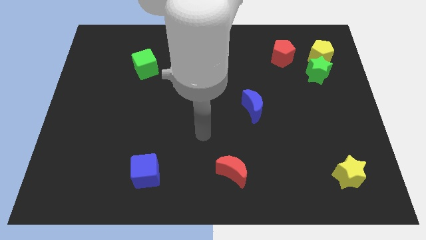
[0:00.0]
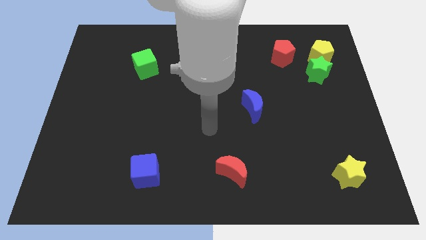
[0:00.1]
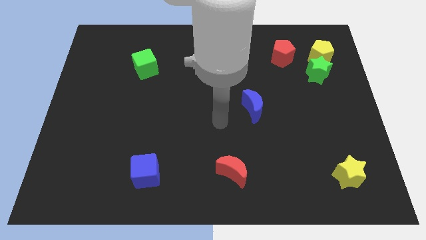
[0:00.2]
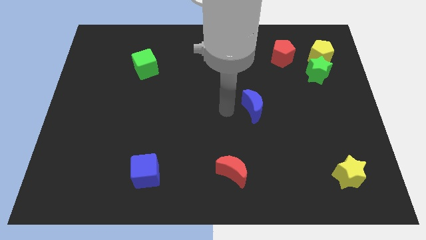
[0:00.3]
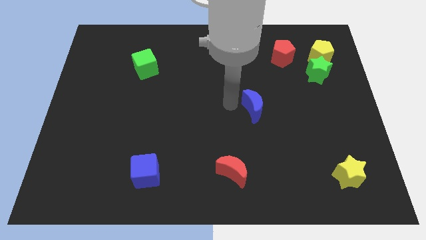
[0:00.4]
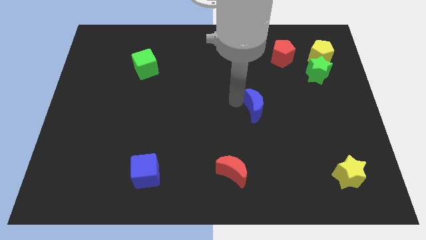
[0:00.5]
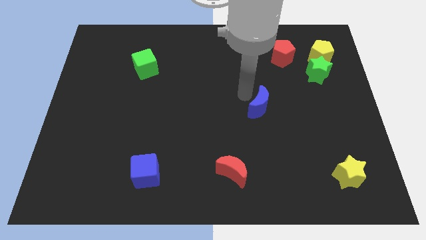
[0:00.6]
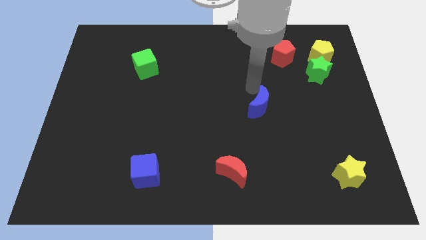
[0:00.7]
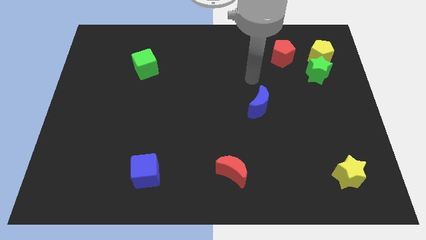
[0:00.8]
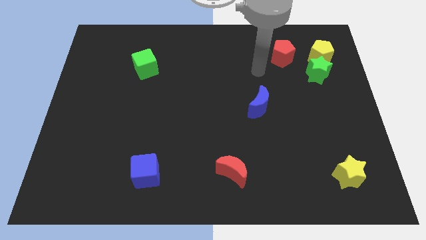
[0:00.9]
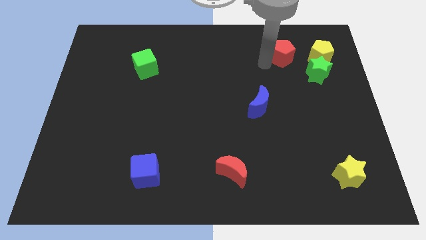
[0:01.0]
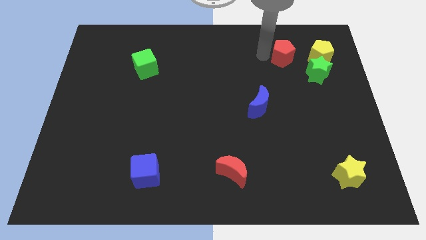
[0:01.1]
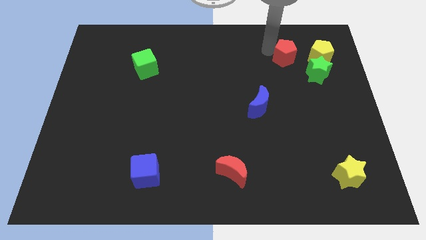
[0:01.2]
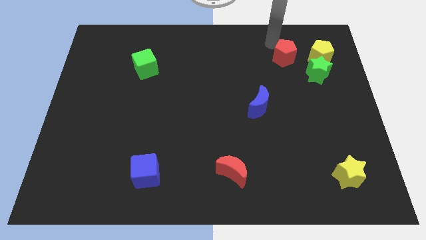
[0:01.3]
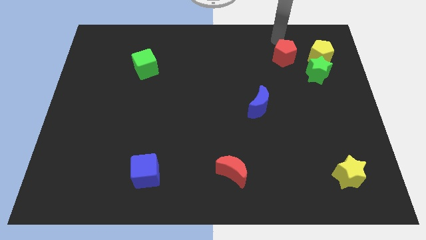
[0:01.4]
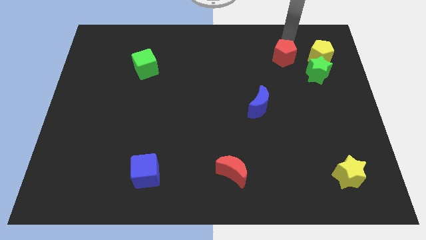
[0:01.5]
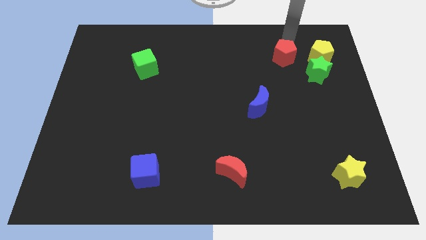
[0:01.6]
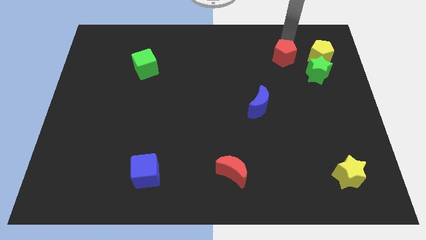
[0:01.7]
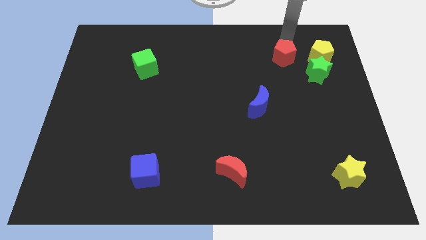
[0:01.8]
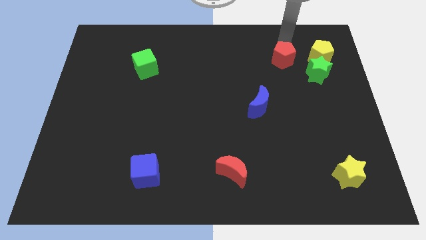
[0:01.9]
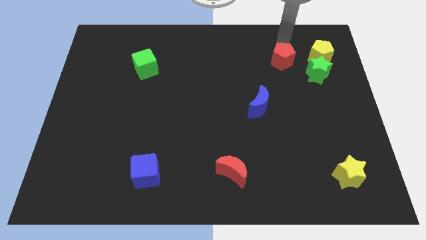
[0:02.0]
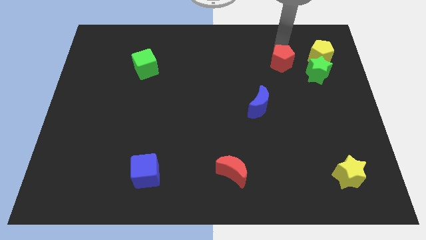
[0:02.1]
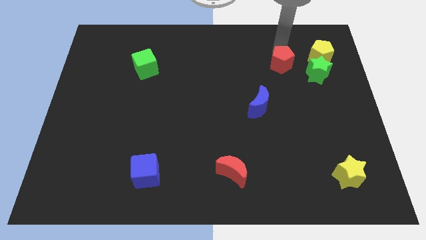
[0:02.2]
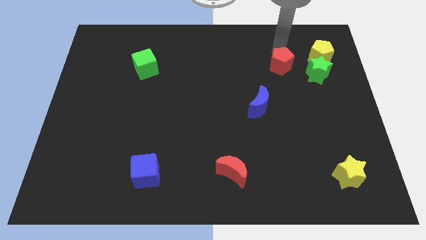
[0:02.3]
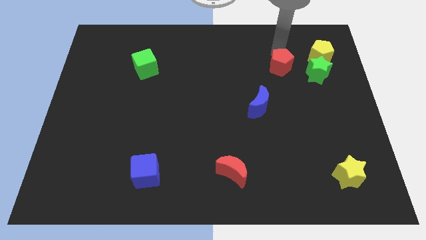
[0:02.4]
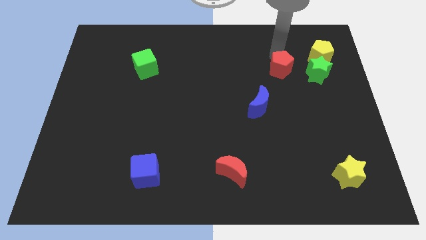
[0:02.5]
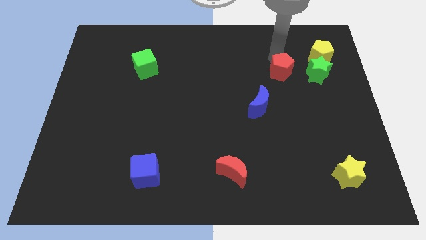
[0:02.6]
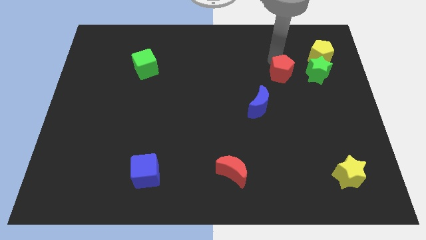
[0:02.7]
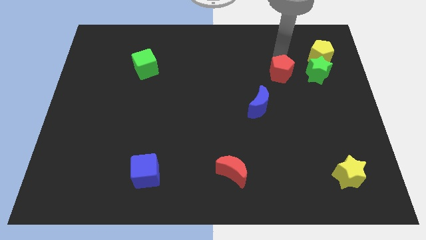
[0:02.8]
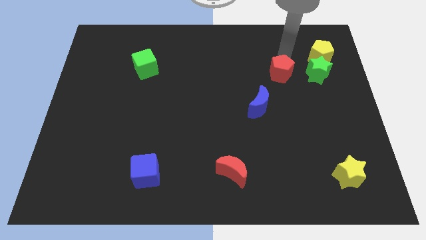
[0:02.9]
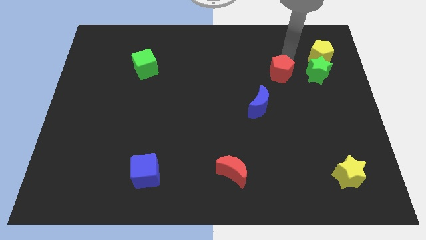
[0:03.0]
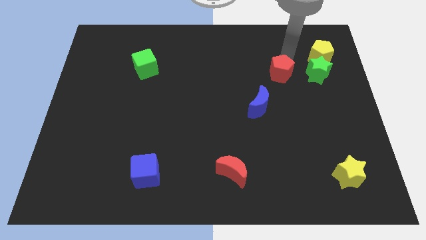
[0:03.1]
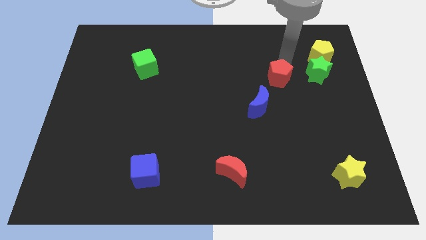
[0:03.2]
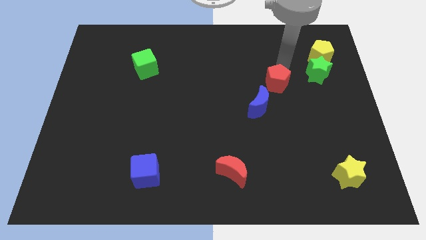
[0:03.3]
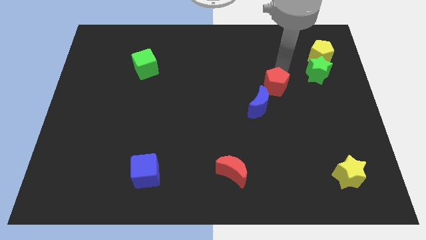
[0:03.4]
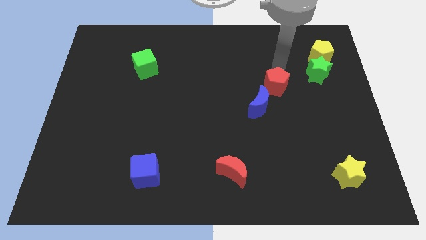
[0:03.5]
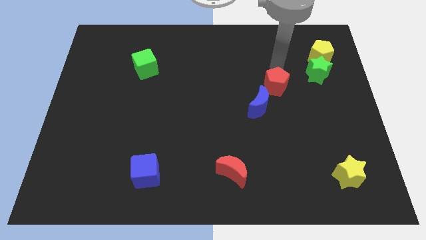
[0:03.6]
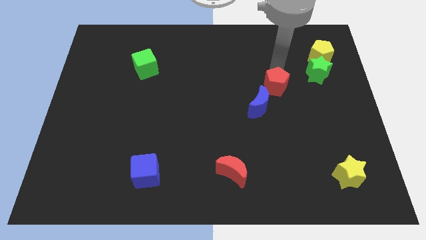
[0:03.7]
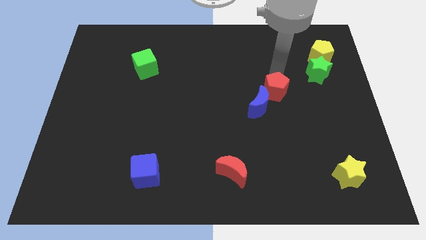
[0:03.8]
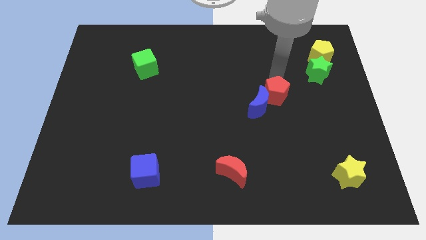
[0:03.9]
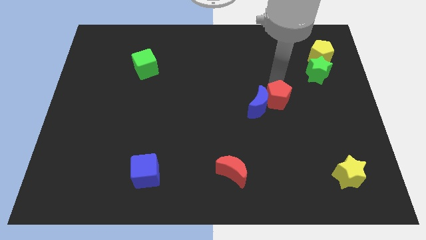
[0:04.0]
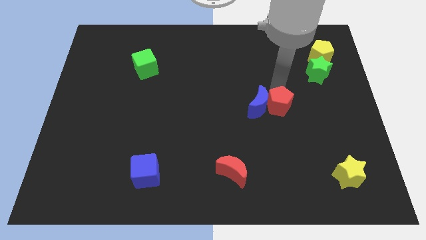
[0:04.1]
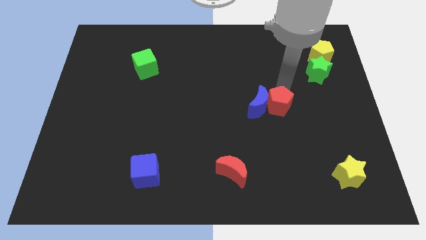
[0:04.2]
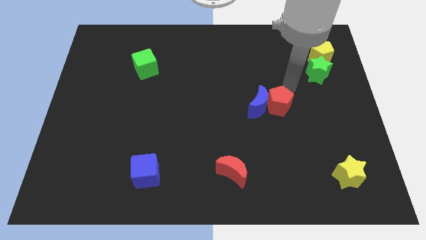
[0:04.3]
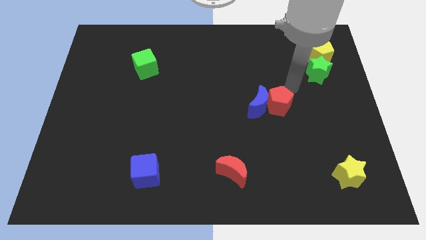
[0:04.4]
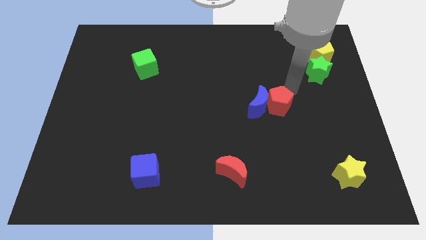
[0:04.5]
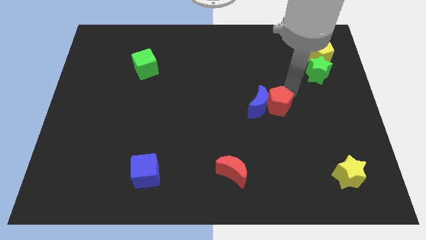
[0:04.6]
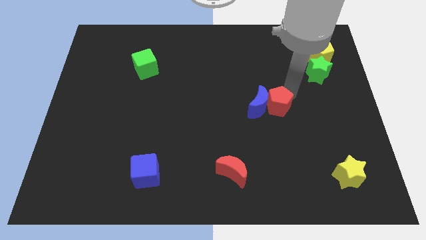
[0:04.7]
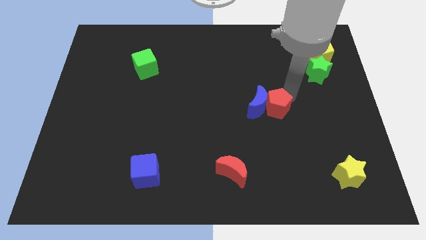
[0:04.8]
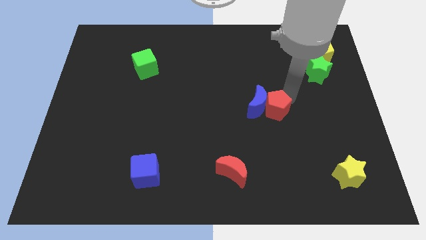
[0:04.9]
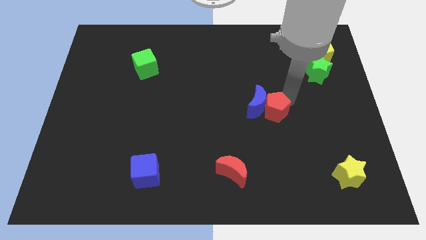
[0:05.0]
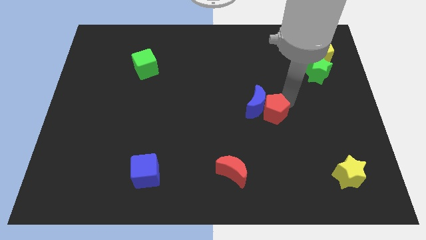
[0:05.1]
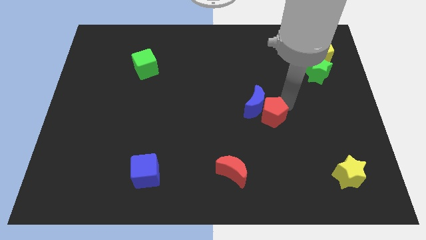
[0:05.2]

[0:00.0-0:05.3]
slide the red pentagon to the bottom of the blue moon

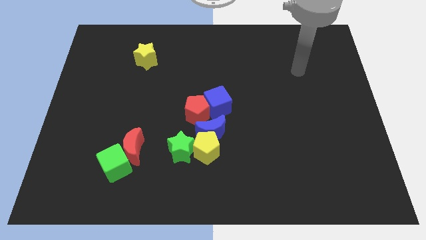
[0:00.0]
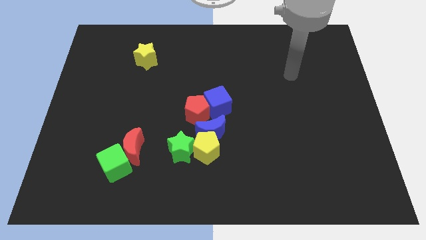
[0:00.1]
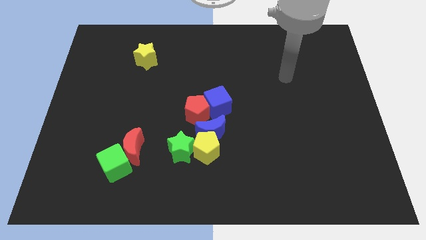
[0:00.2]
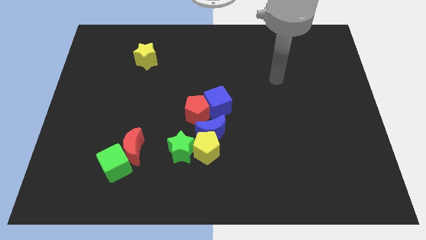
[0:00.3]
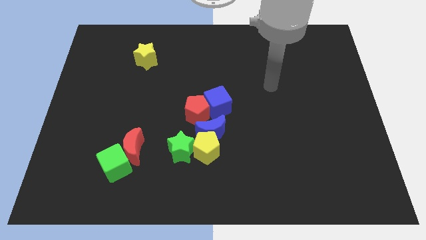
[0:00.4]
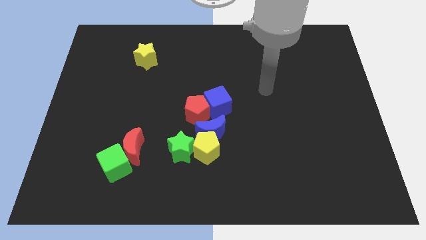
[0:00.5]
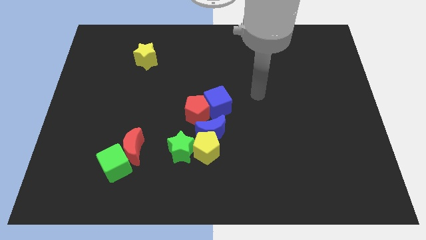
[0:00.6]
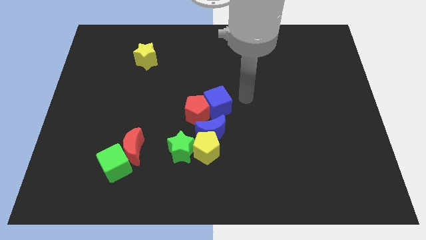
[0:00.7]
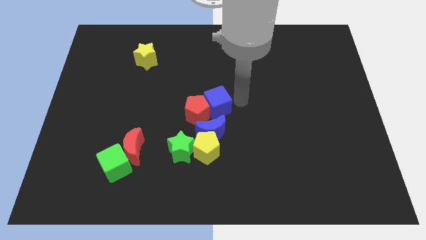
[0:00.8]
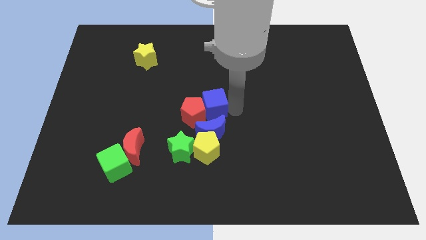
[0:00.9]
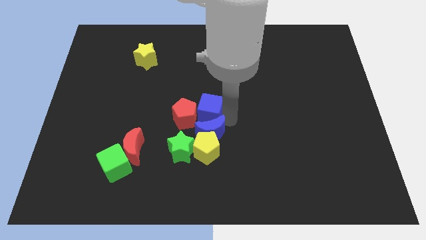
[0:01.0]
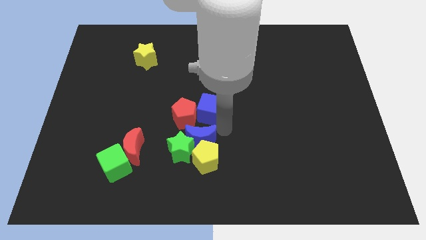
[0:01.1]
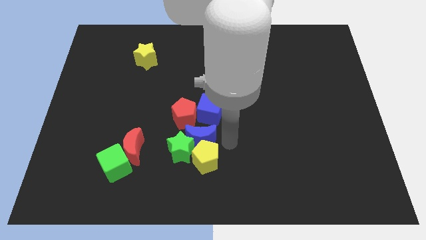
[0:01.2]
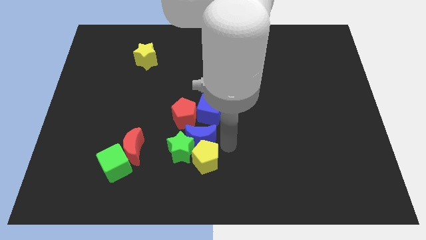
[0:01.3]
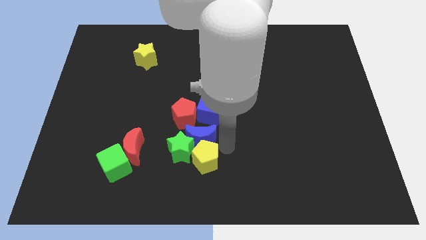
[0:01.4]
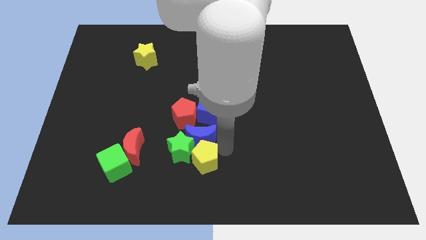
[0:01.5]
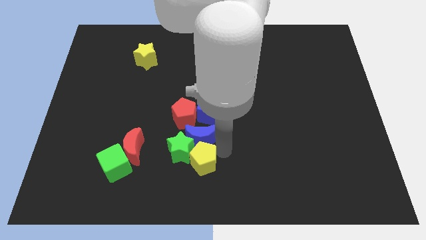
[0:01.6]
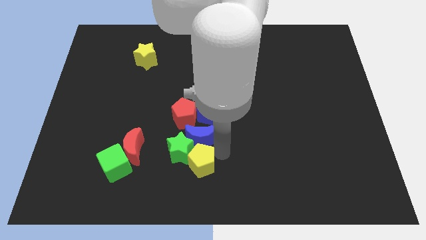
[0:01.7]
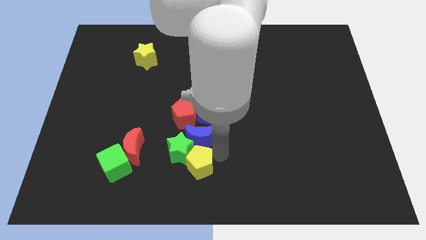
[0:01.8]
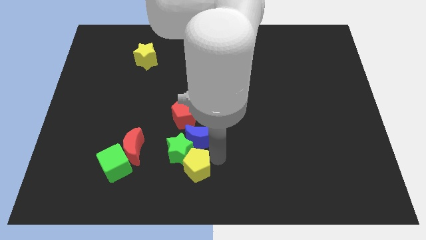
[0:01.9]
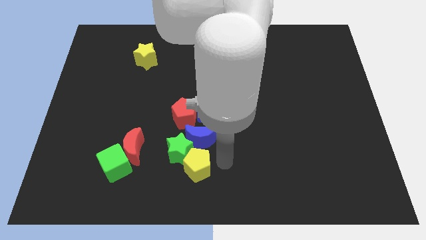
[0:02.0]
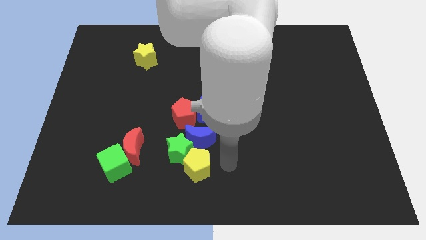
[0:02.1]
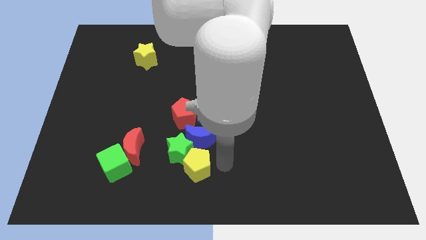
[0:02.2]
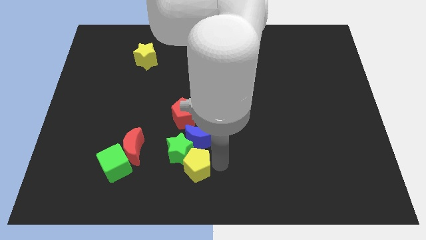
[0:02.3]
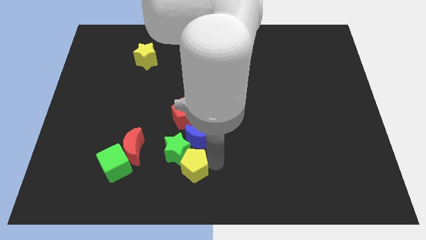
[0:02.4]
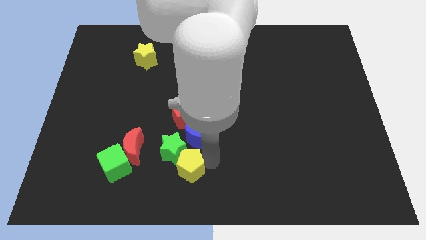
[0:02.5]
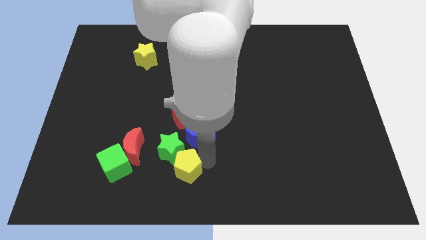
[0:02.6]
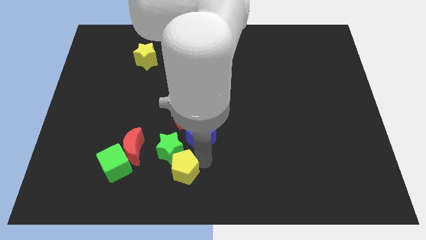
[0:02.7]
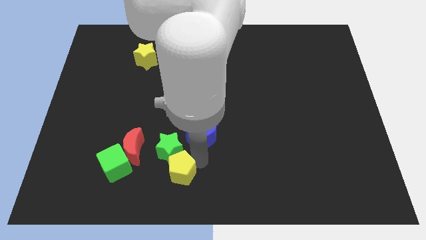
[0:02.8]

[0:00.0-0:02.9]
put the yellow pentagon to the bottom right side of the red moon
